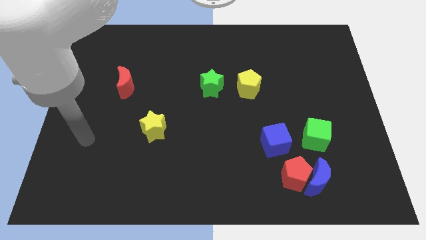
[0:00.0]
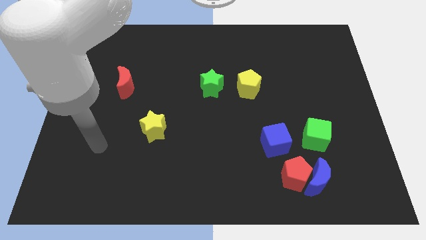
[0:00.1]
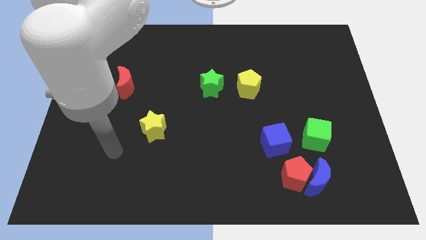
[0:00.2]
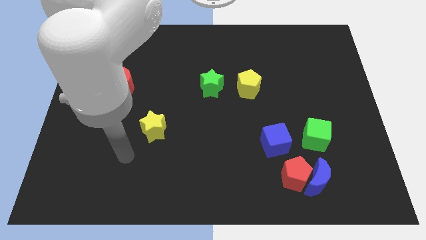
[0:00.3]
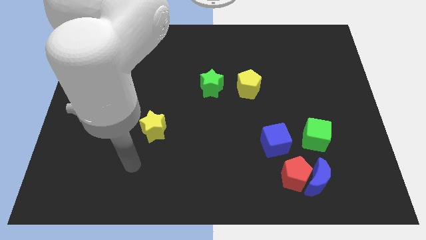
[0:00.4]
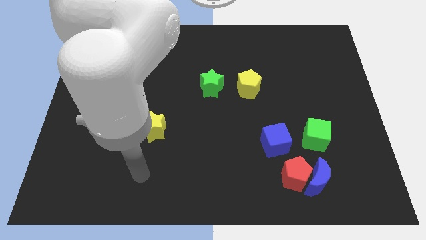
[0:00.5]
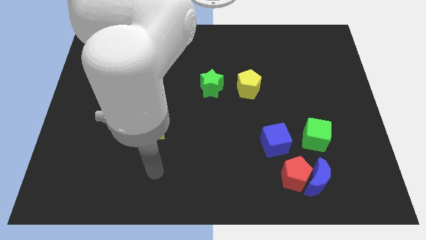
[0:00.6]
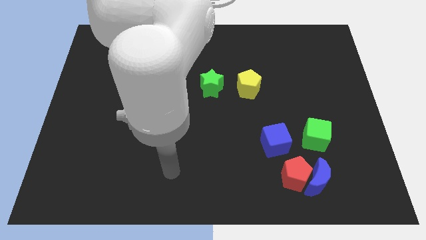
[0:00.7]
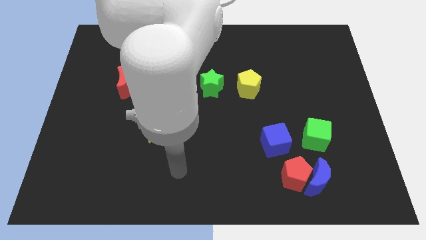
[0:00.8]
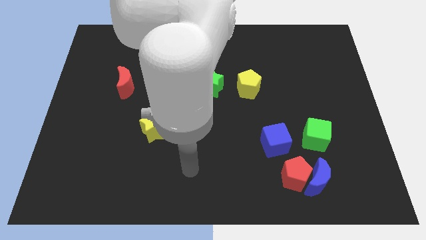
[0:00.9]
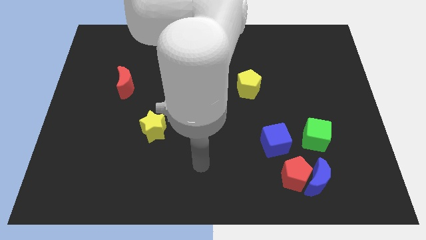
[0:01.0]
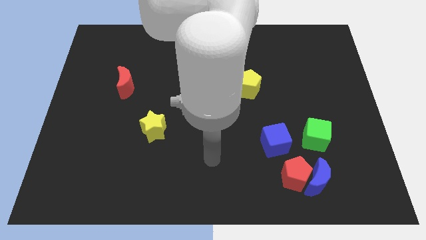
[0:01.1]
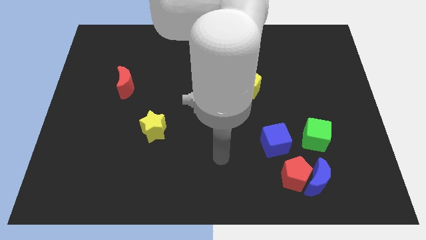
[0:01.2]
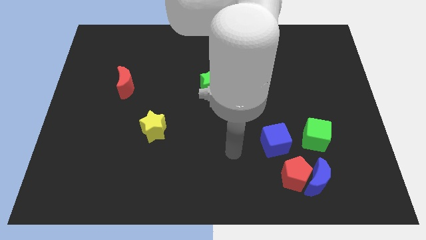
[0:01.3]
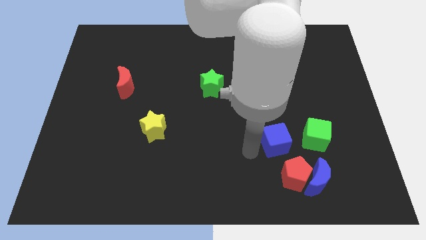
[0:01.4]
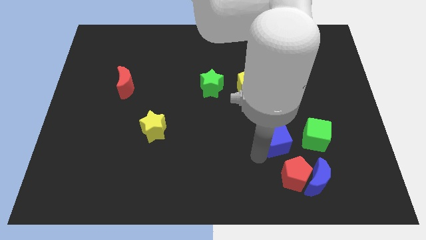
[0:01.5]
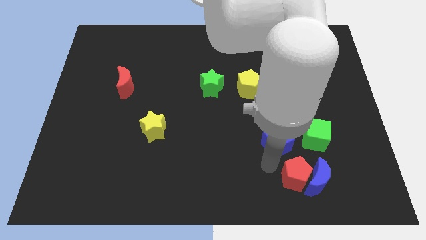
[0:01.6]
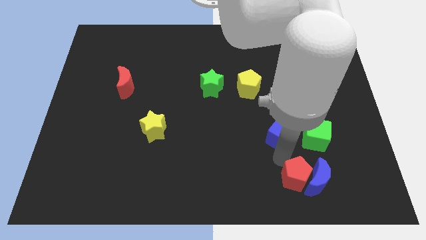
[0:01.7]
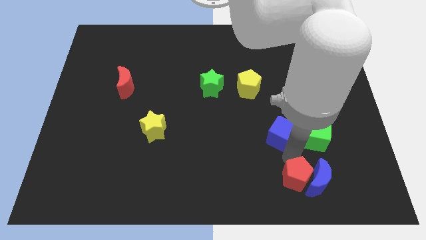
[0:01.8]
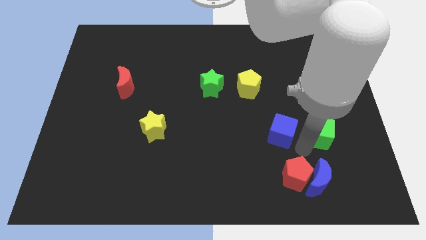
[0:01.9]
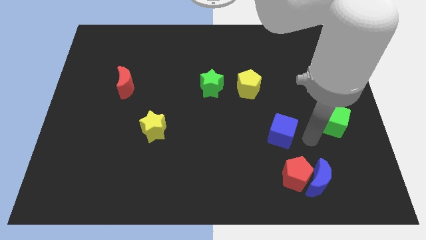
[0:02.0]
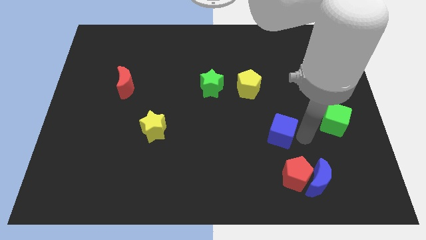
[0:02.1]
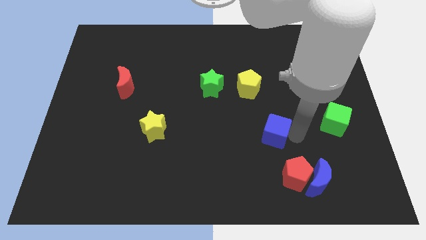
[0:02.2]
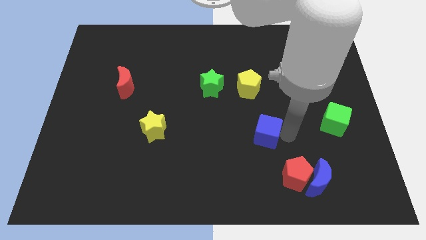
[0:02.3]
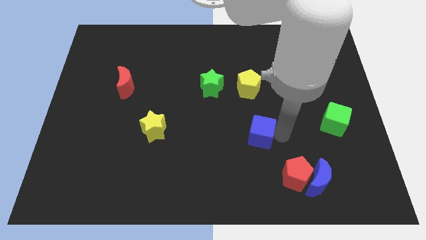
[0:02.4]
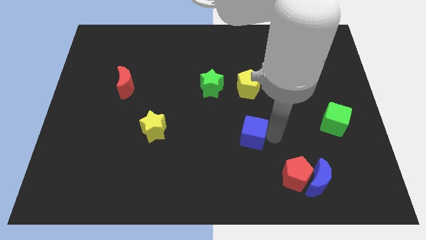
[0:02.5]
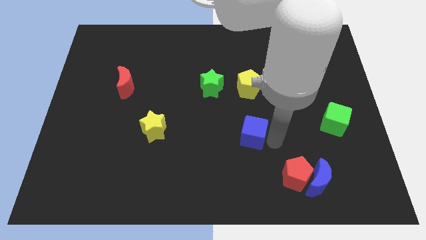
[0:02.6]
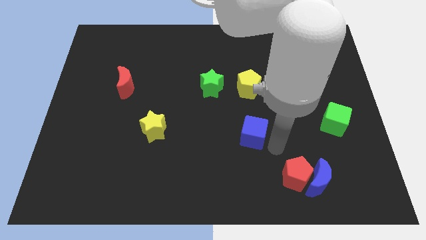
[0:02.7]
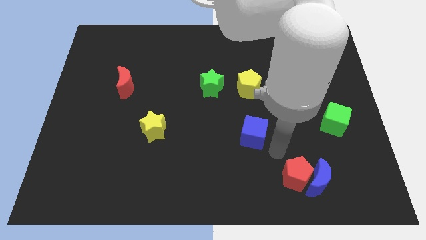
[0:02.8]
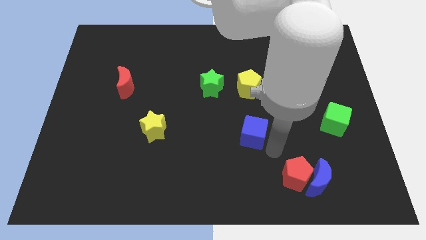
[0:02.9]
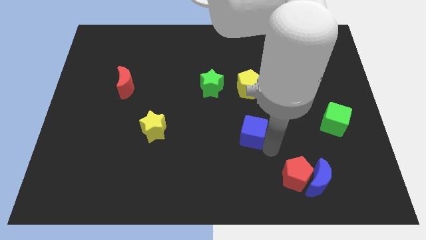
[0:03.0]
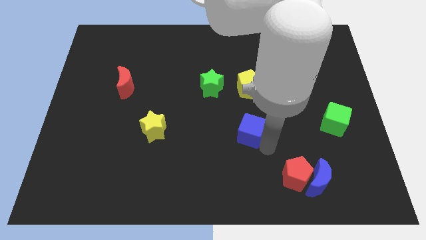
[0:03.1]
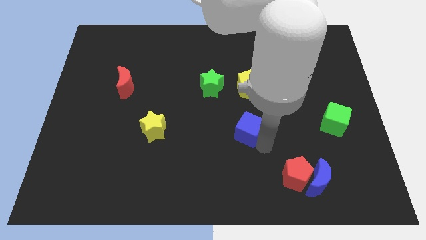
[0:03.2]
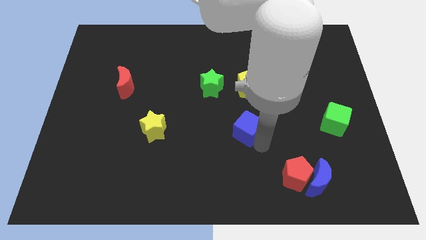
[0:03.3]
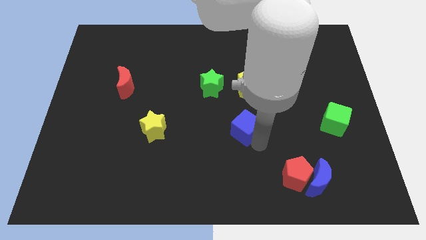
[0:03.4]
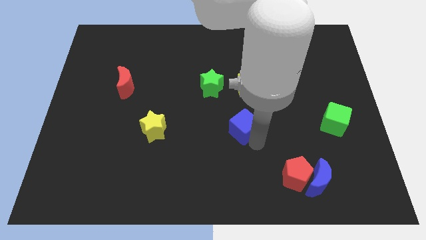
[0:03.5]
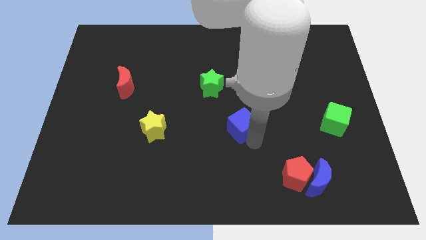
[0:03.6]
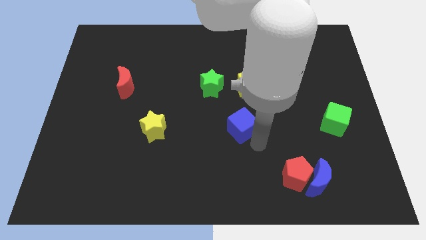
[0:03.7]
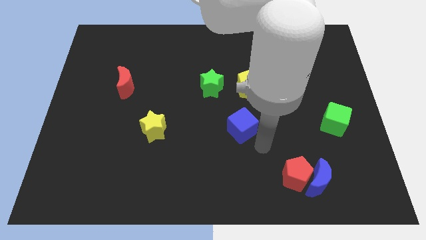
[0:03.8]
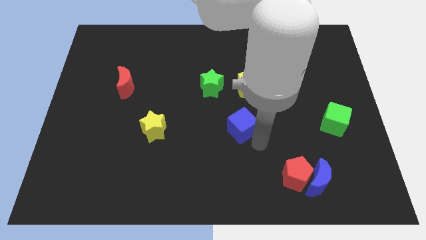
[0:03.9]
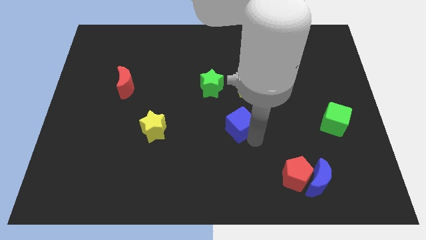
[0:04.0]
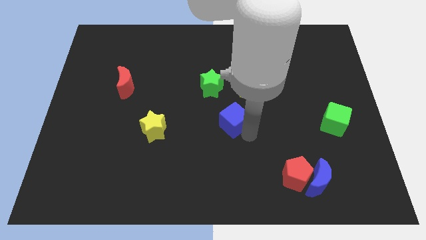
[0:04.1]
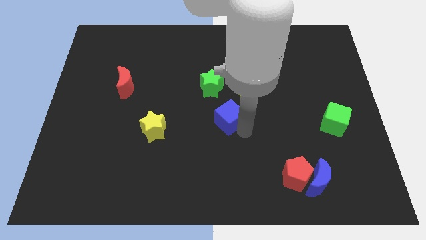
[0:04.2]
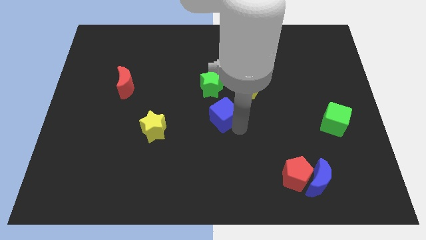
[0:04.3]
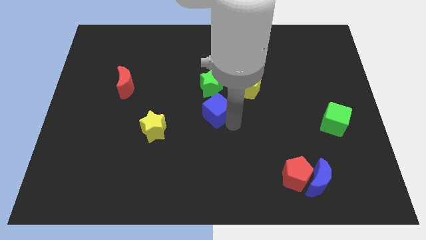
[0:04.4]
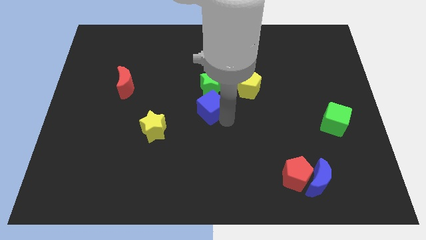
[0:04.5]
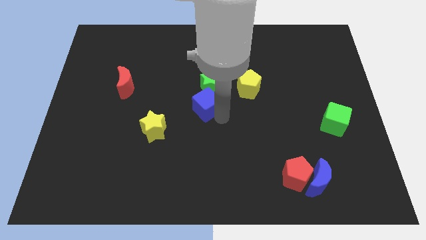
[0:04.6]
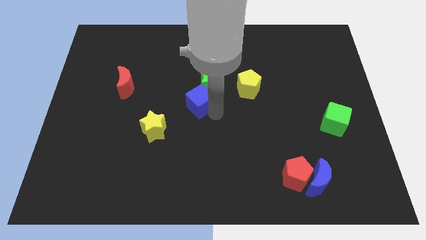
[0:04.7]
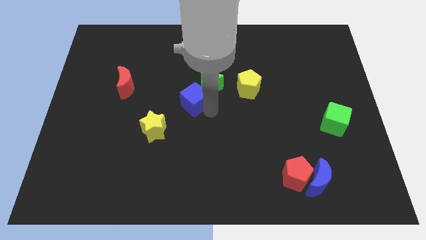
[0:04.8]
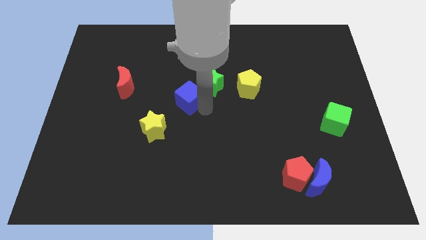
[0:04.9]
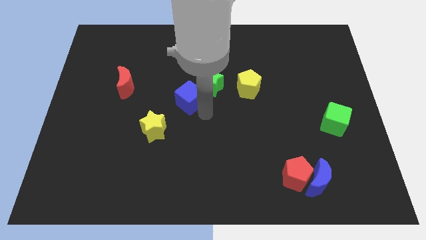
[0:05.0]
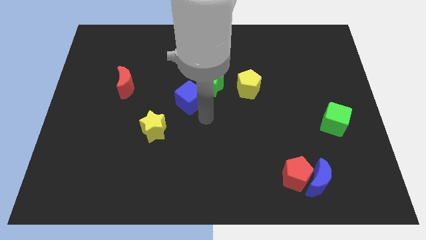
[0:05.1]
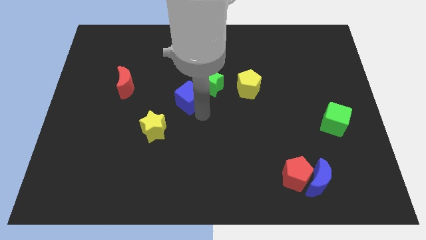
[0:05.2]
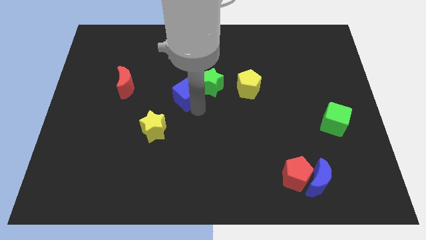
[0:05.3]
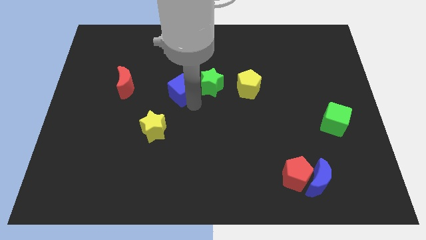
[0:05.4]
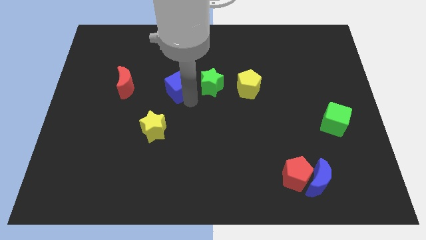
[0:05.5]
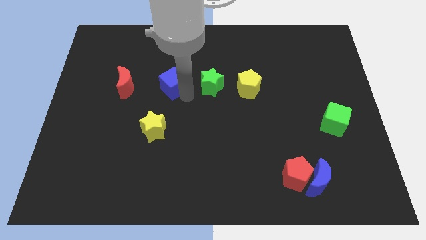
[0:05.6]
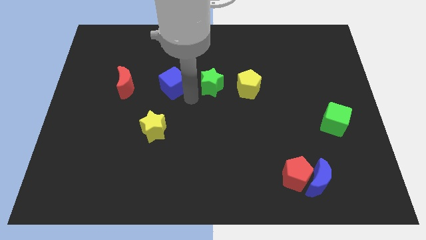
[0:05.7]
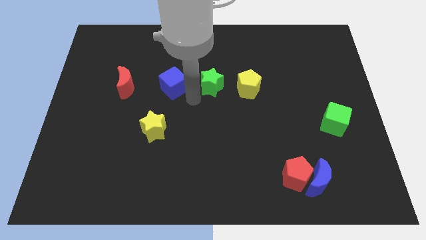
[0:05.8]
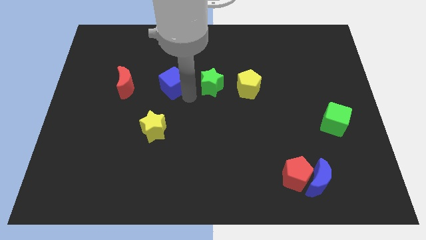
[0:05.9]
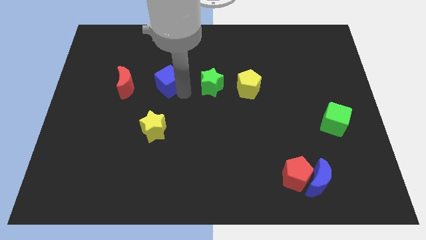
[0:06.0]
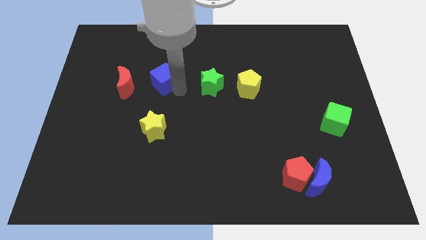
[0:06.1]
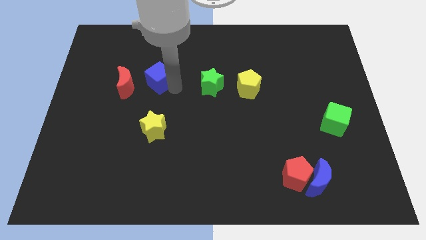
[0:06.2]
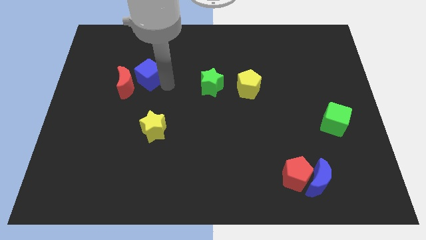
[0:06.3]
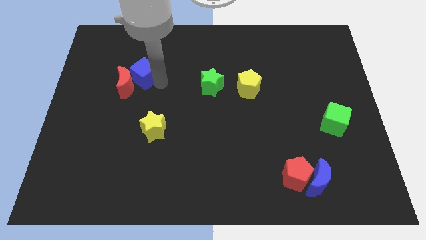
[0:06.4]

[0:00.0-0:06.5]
push the blue cube to the top side of the red moon
